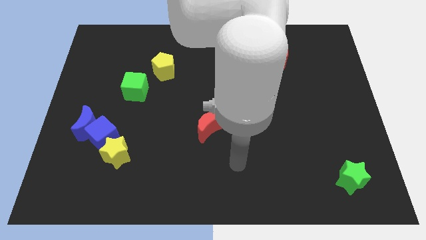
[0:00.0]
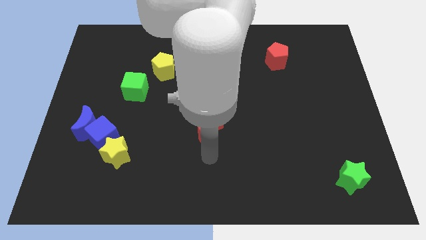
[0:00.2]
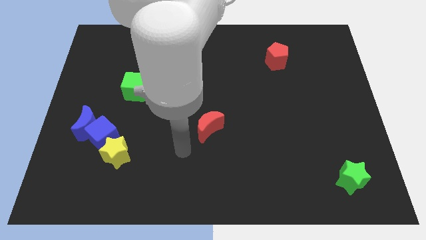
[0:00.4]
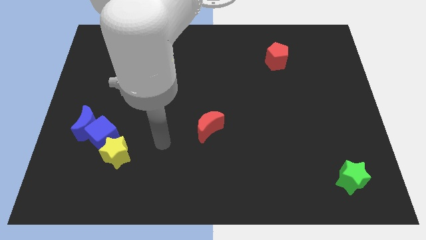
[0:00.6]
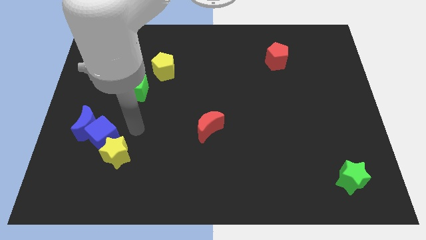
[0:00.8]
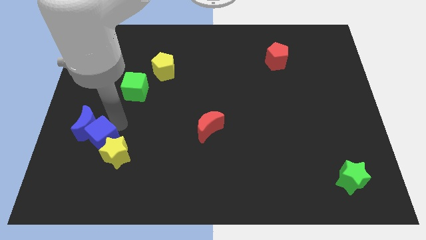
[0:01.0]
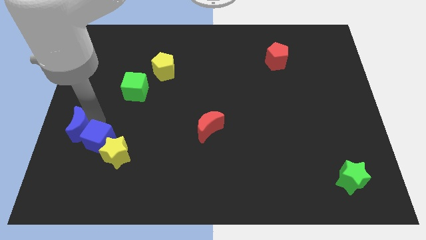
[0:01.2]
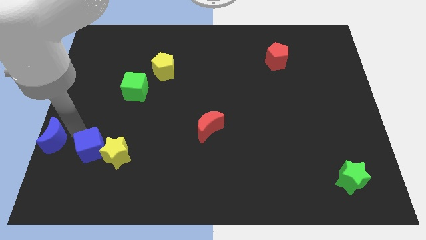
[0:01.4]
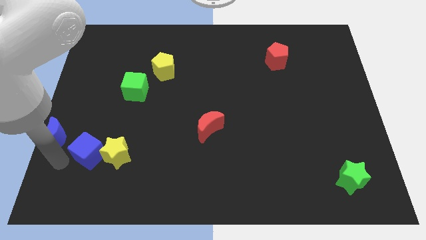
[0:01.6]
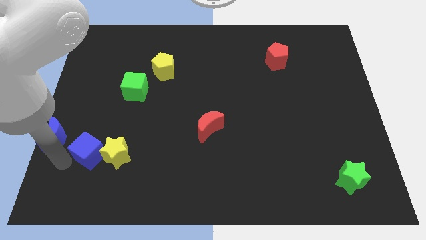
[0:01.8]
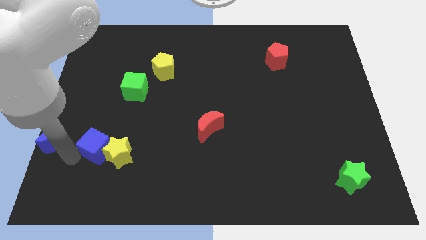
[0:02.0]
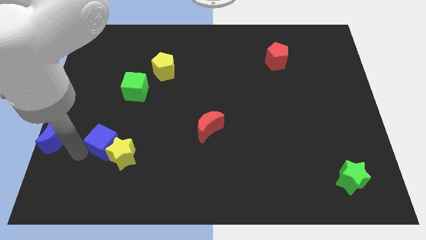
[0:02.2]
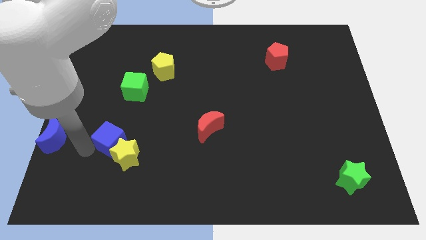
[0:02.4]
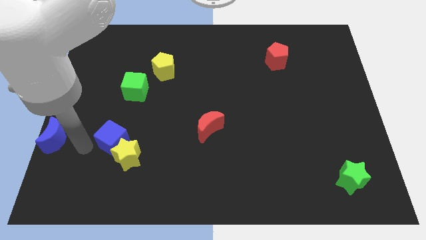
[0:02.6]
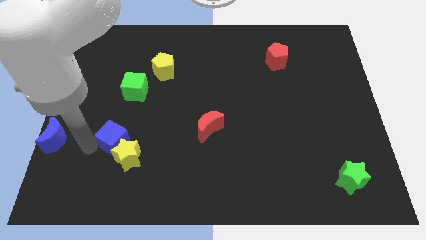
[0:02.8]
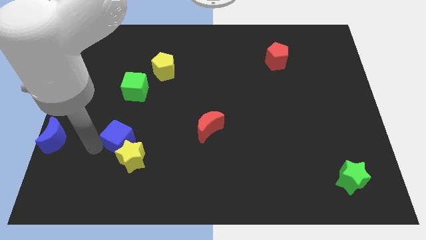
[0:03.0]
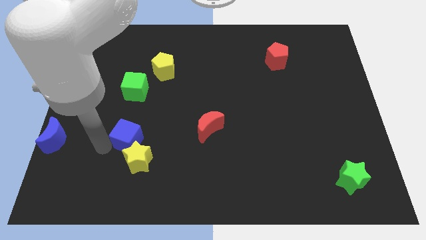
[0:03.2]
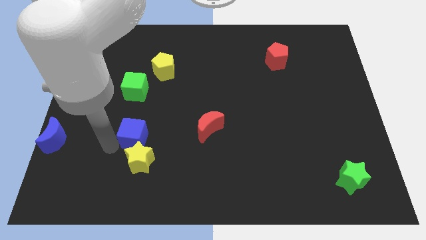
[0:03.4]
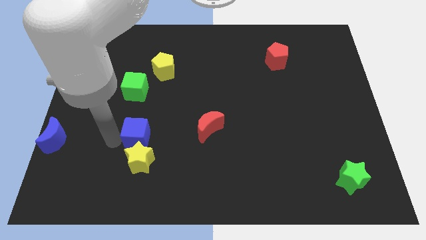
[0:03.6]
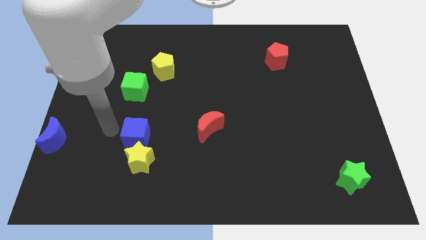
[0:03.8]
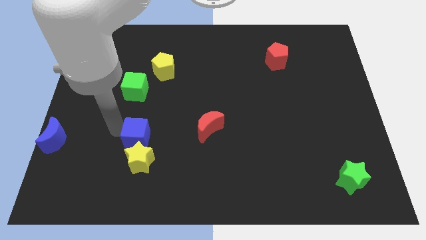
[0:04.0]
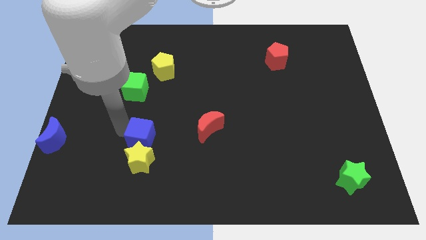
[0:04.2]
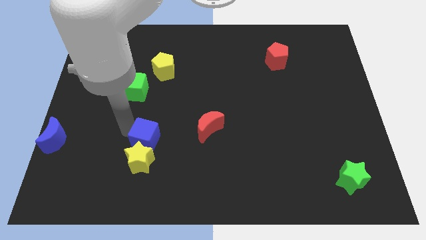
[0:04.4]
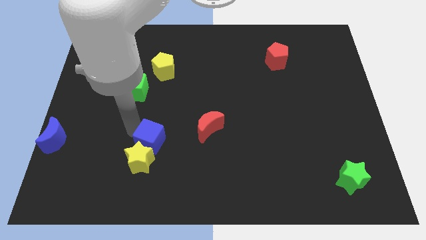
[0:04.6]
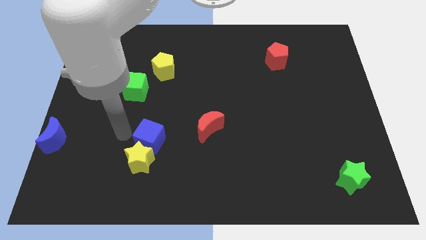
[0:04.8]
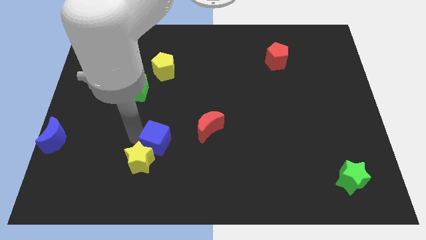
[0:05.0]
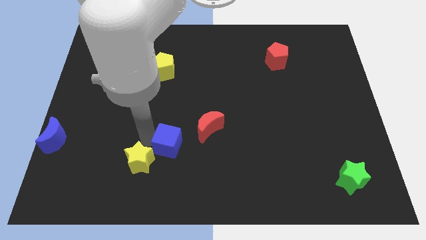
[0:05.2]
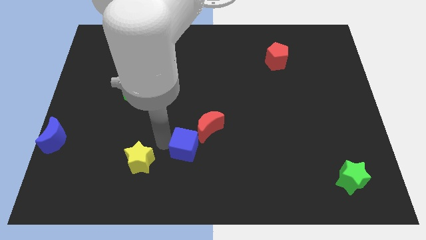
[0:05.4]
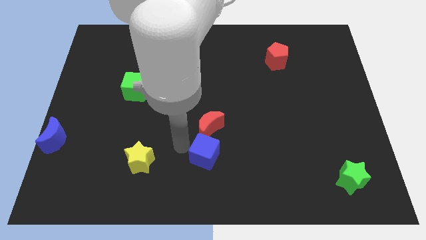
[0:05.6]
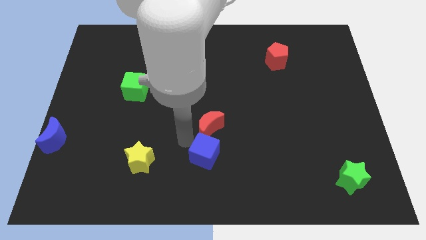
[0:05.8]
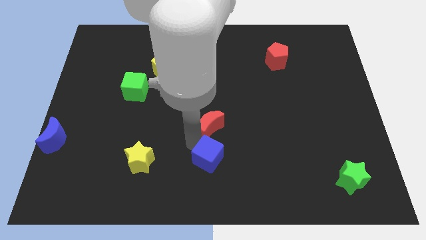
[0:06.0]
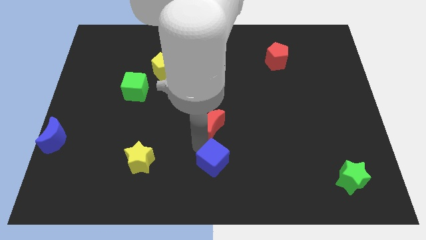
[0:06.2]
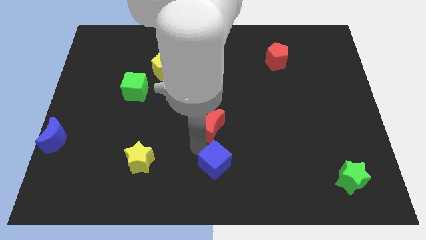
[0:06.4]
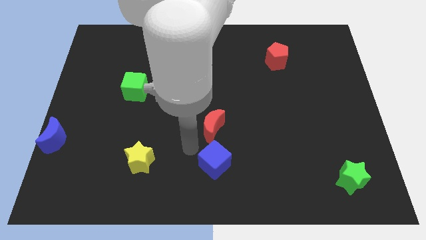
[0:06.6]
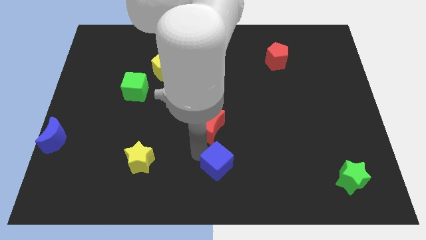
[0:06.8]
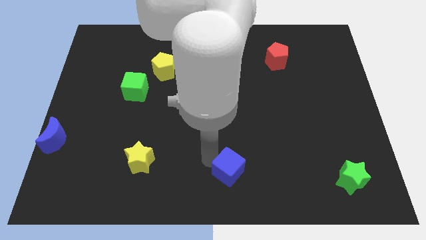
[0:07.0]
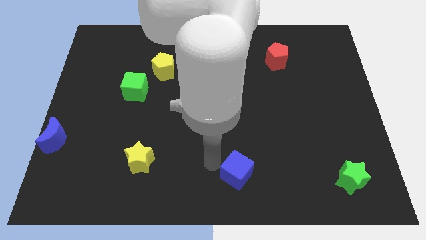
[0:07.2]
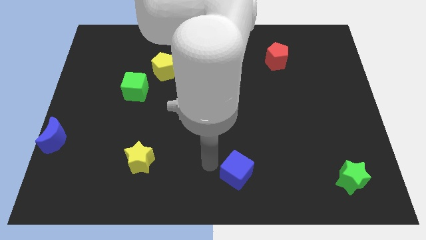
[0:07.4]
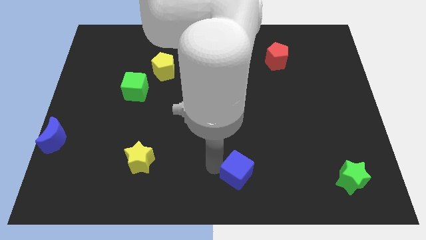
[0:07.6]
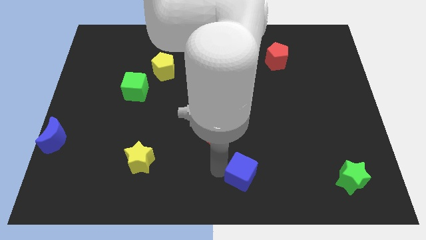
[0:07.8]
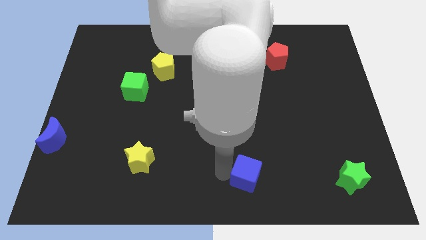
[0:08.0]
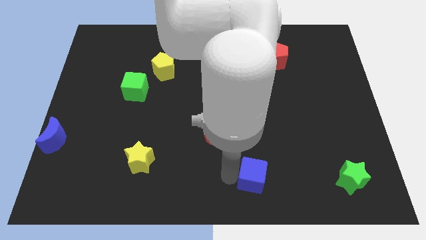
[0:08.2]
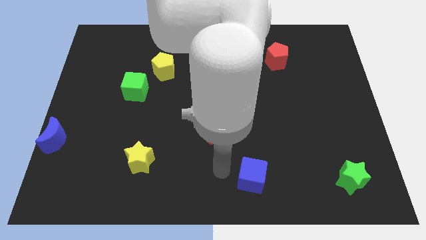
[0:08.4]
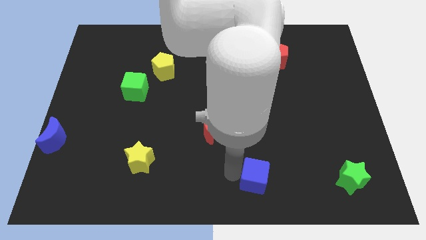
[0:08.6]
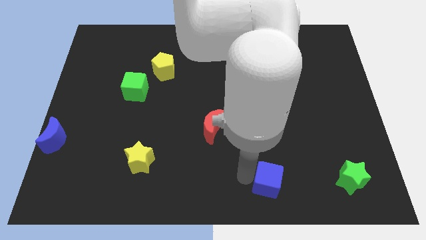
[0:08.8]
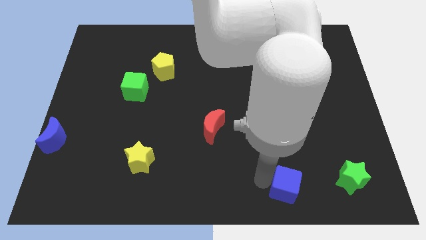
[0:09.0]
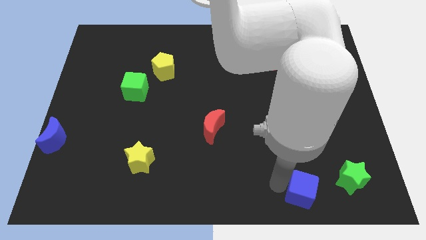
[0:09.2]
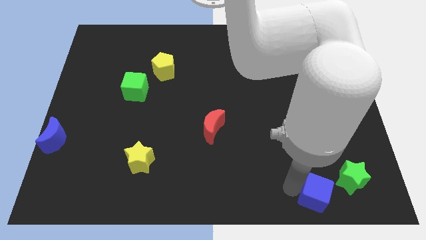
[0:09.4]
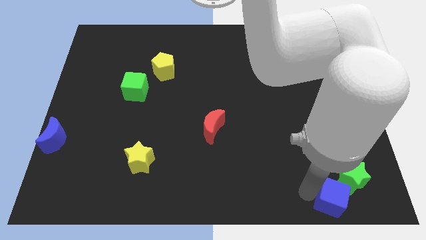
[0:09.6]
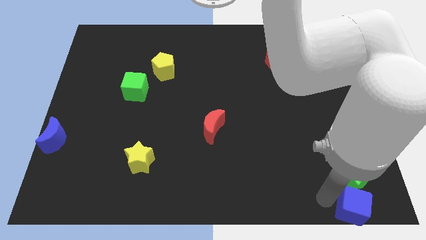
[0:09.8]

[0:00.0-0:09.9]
move the blue cube to the lower right corner

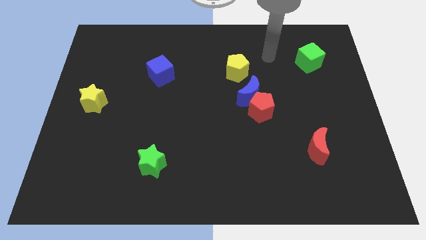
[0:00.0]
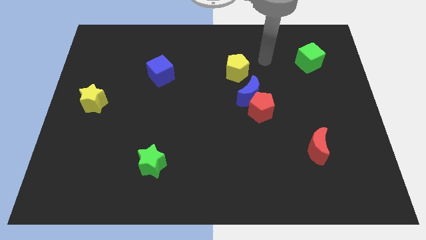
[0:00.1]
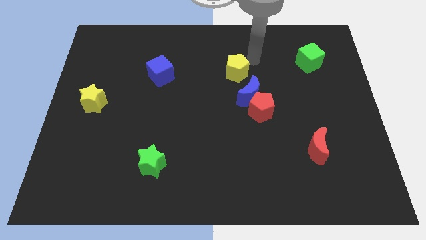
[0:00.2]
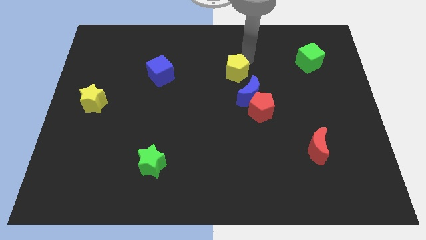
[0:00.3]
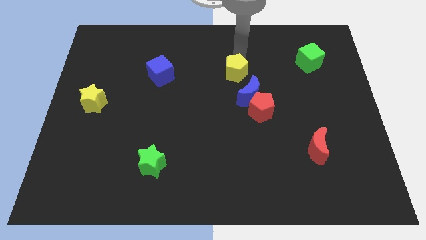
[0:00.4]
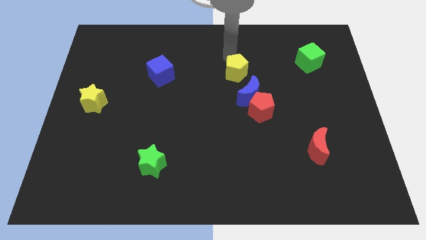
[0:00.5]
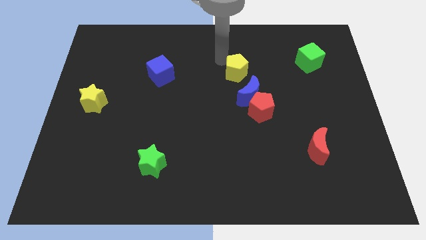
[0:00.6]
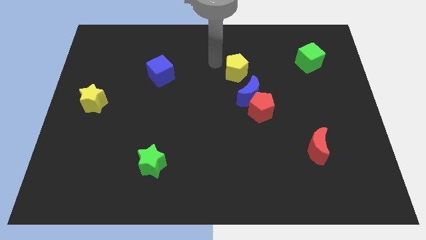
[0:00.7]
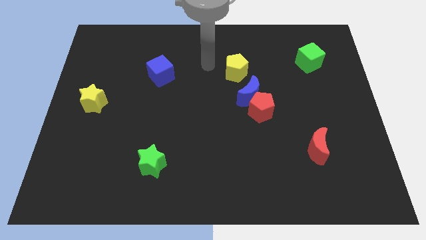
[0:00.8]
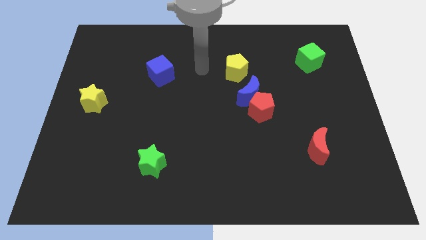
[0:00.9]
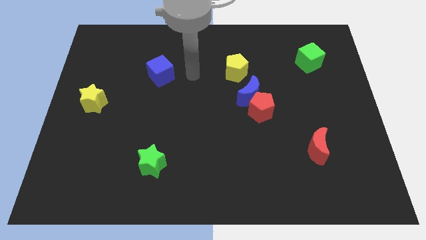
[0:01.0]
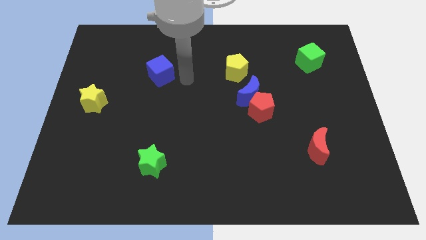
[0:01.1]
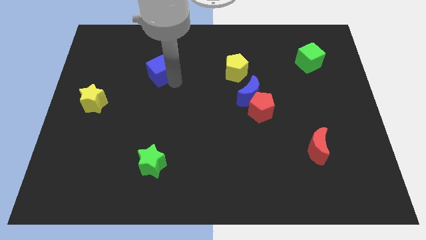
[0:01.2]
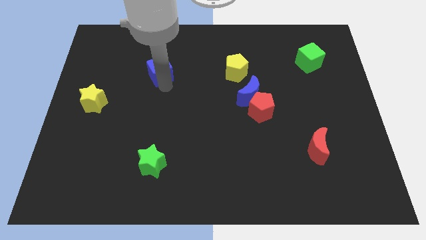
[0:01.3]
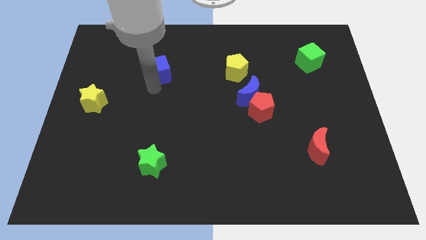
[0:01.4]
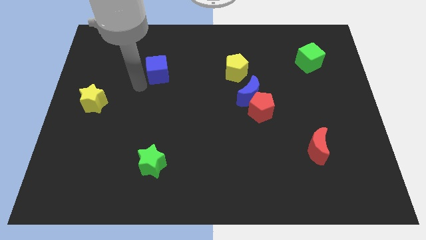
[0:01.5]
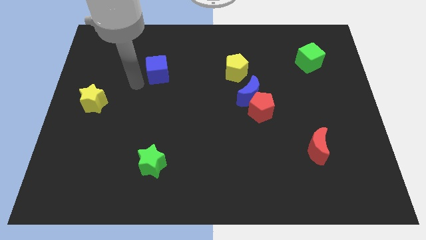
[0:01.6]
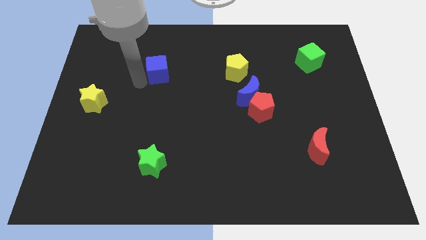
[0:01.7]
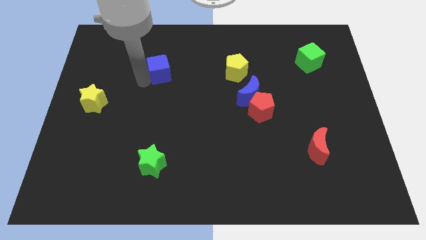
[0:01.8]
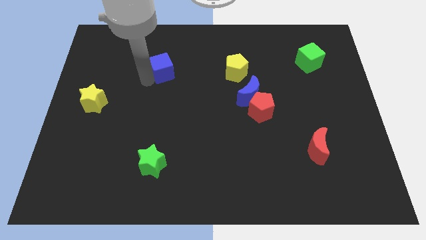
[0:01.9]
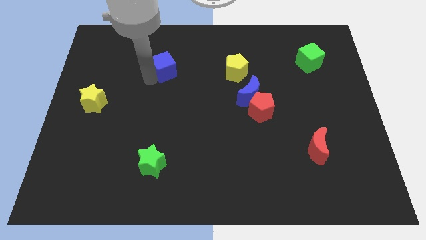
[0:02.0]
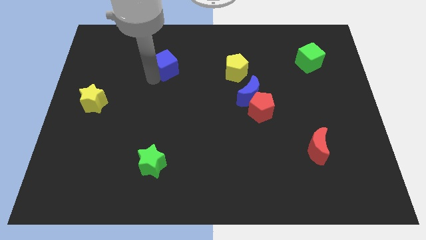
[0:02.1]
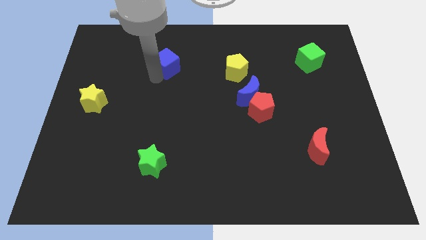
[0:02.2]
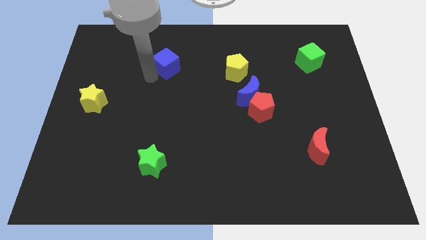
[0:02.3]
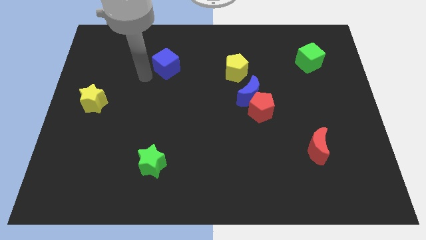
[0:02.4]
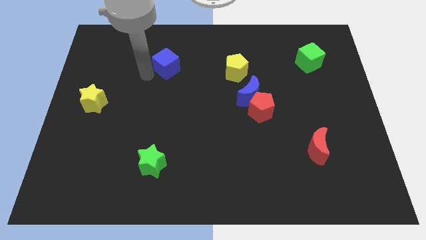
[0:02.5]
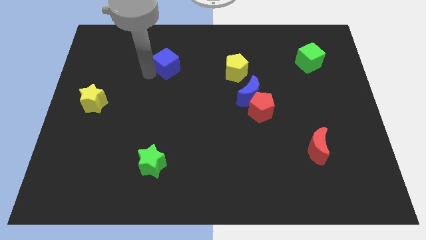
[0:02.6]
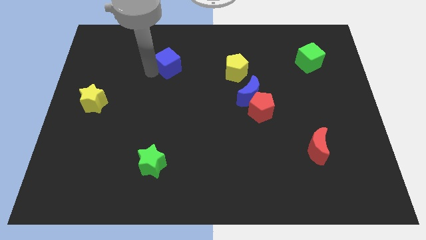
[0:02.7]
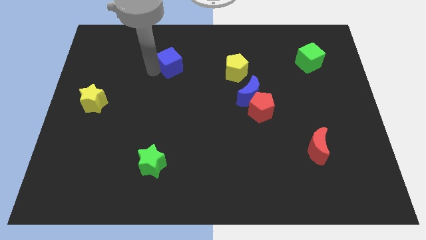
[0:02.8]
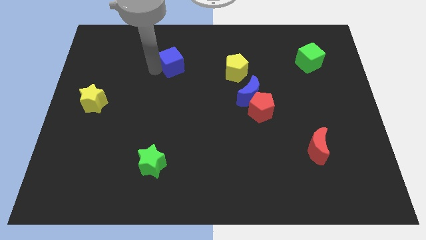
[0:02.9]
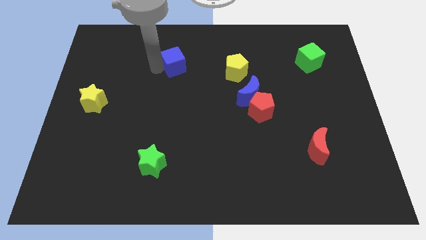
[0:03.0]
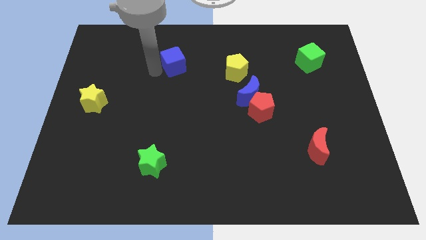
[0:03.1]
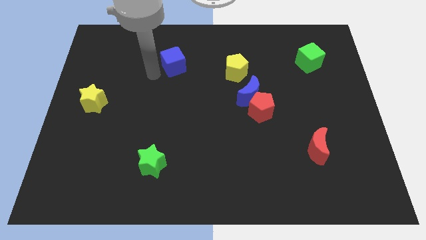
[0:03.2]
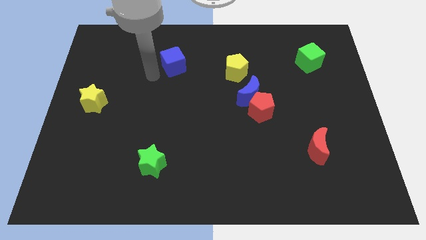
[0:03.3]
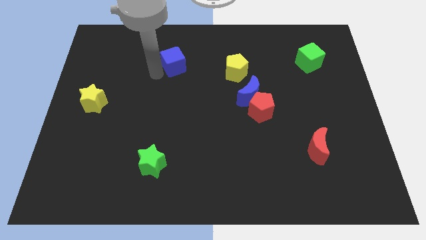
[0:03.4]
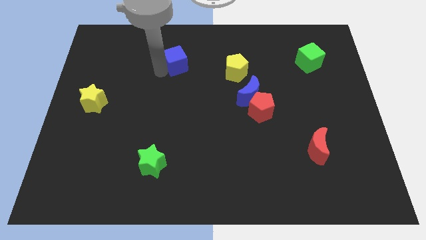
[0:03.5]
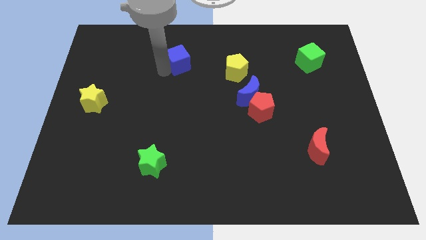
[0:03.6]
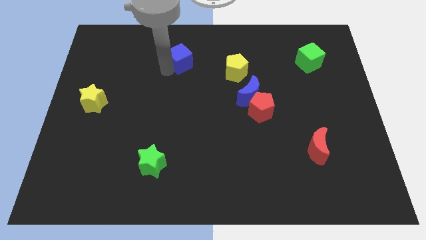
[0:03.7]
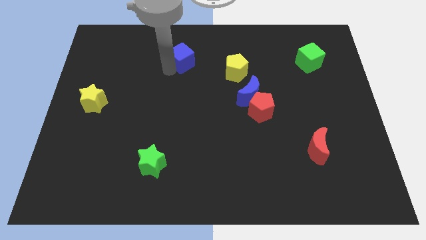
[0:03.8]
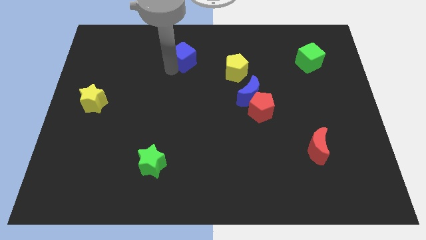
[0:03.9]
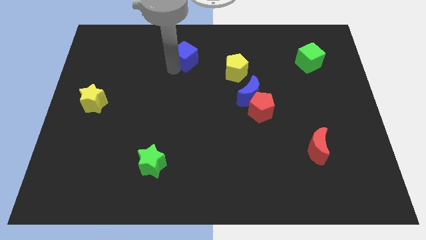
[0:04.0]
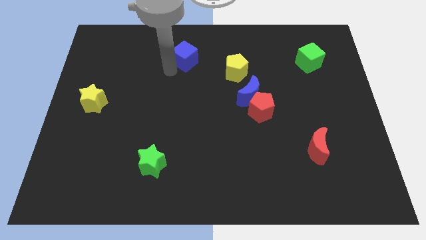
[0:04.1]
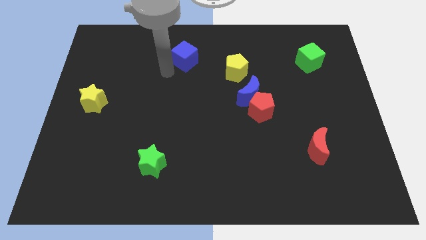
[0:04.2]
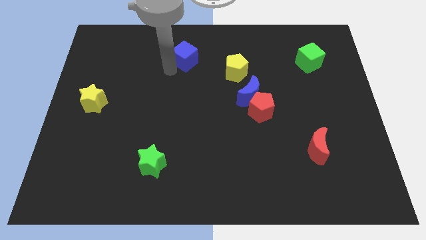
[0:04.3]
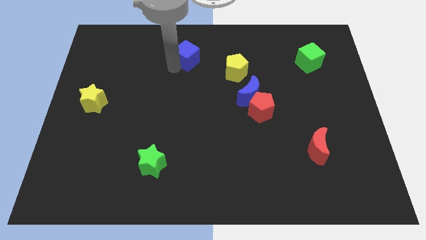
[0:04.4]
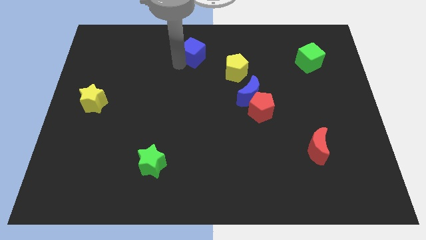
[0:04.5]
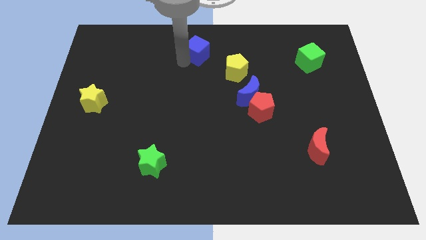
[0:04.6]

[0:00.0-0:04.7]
slide the blue cube to the top side
